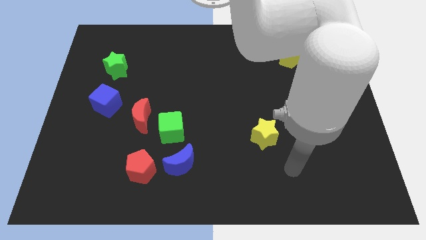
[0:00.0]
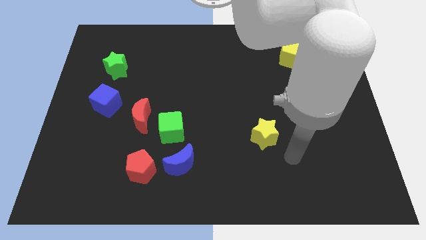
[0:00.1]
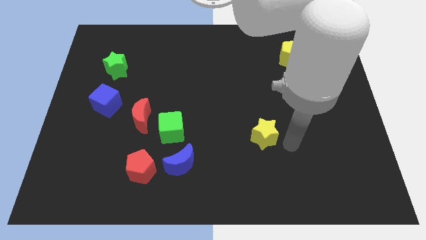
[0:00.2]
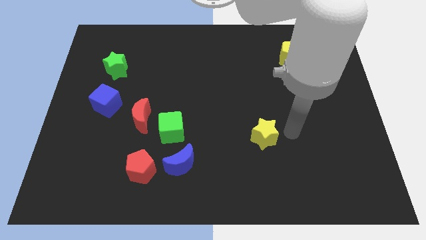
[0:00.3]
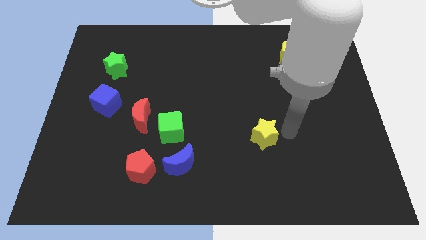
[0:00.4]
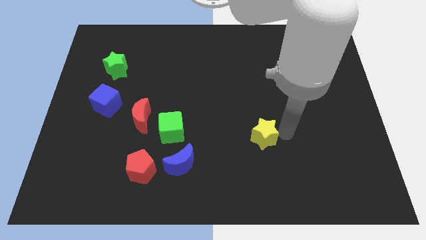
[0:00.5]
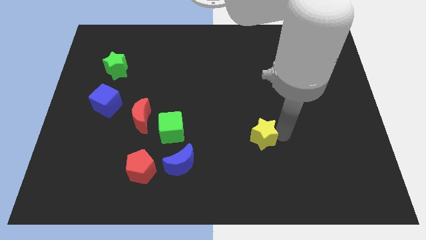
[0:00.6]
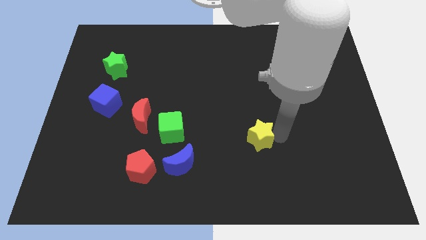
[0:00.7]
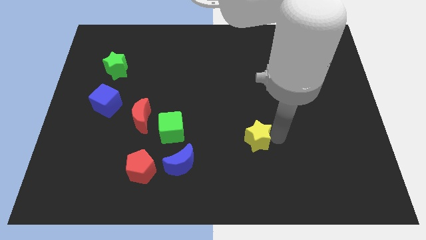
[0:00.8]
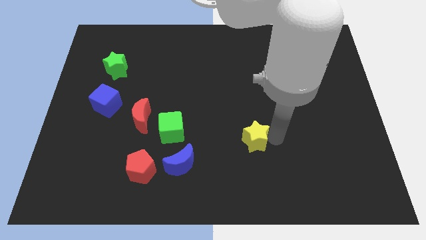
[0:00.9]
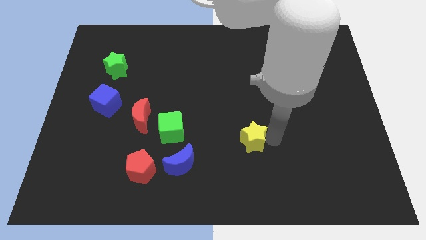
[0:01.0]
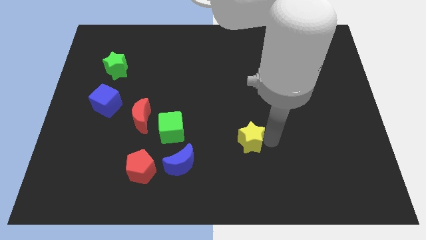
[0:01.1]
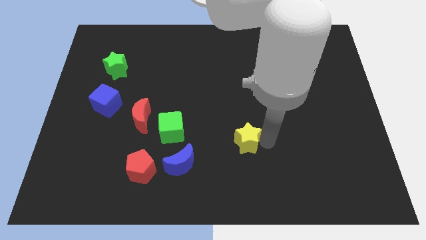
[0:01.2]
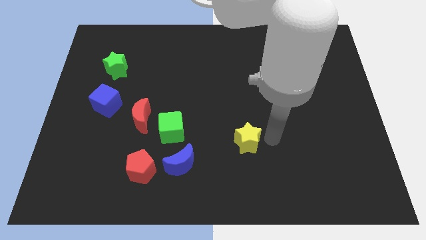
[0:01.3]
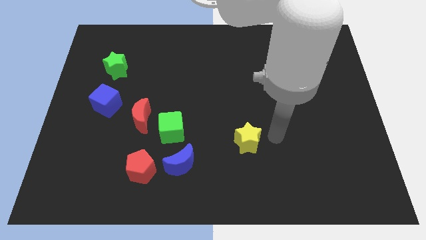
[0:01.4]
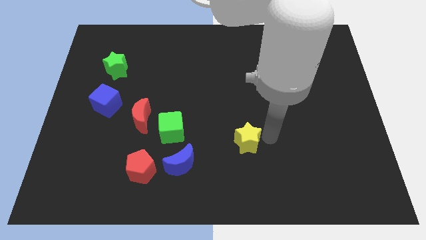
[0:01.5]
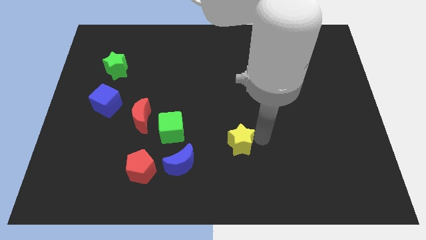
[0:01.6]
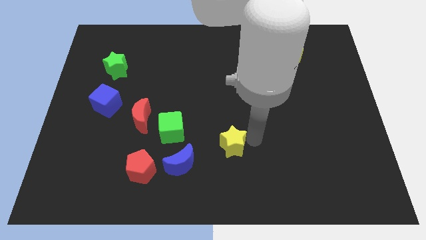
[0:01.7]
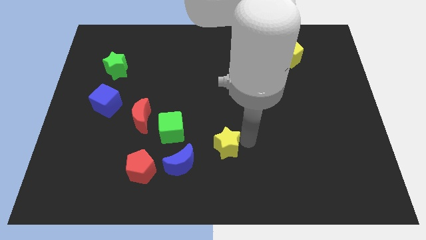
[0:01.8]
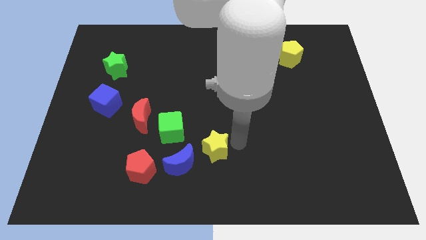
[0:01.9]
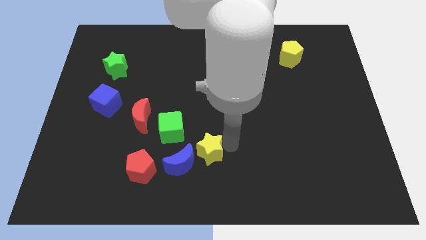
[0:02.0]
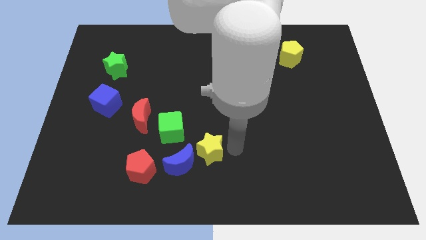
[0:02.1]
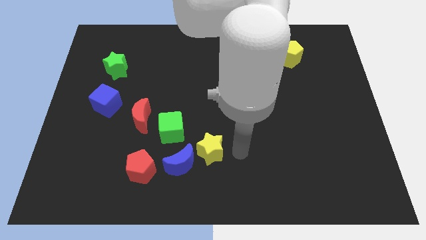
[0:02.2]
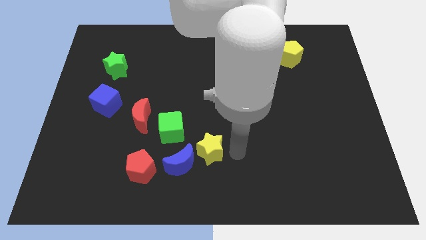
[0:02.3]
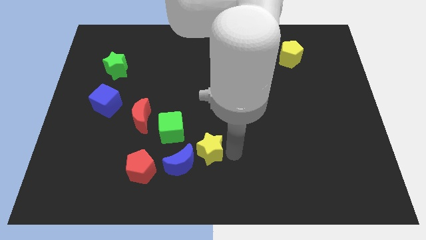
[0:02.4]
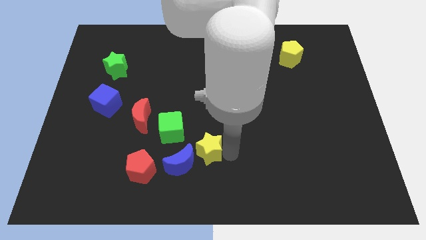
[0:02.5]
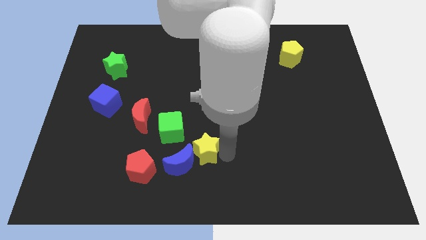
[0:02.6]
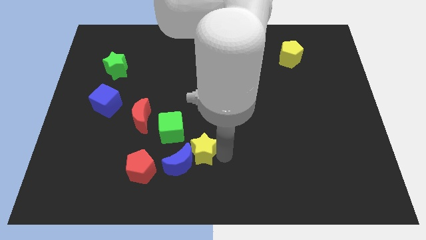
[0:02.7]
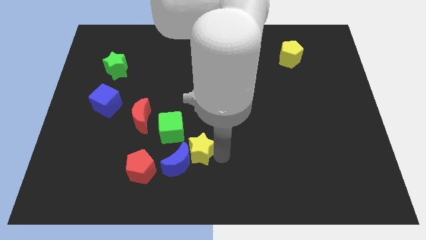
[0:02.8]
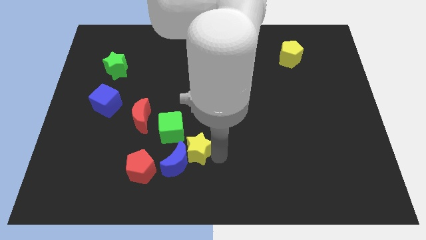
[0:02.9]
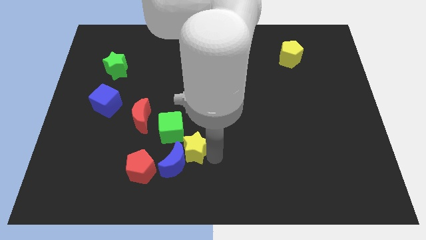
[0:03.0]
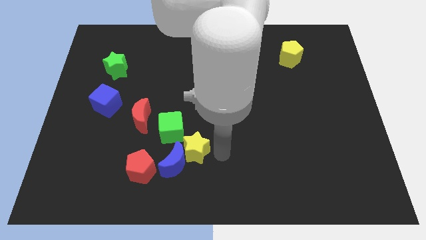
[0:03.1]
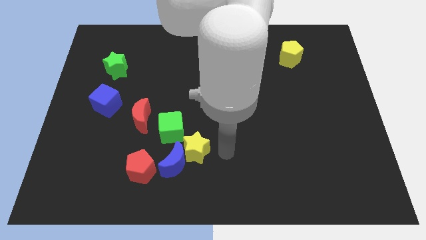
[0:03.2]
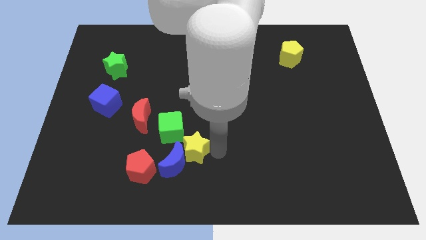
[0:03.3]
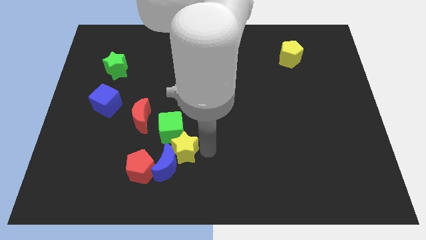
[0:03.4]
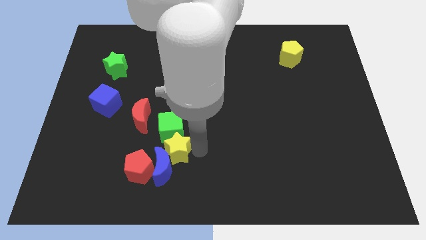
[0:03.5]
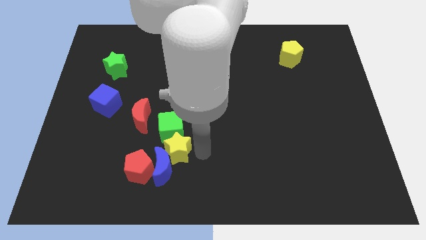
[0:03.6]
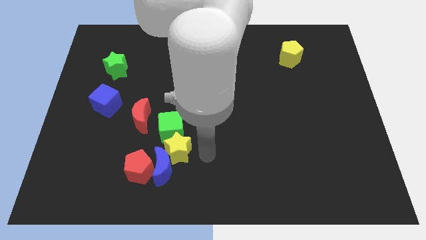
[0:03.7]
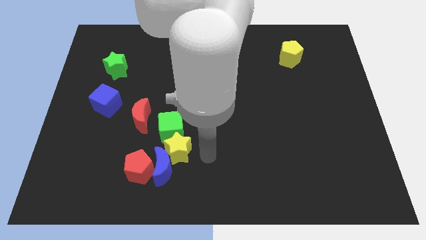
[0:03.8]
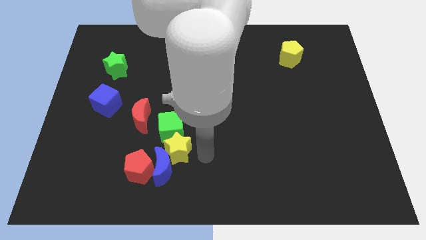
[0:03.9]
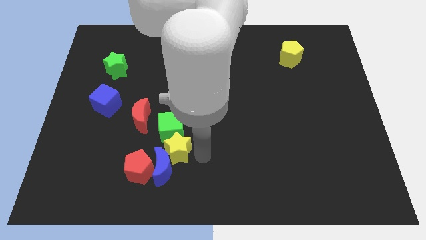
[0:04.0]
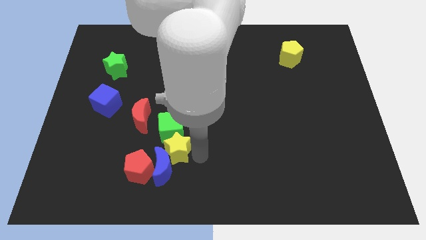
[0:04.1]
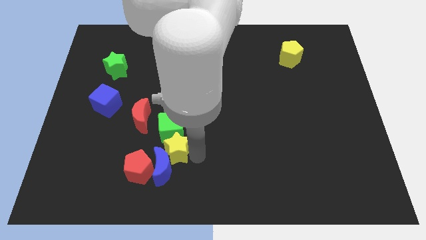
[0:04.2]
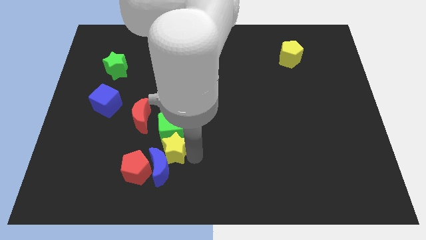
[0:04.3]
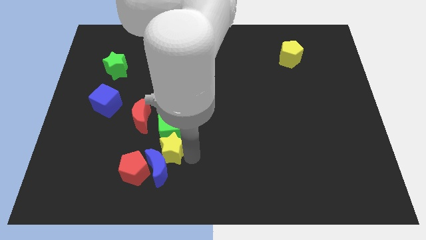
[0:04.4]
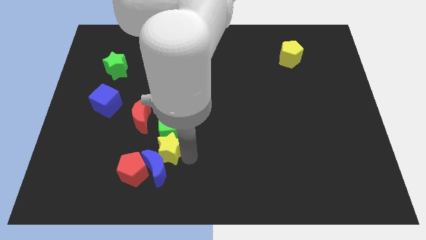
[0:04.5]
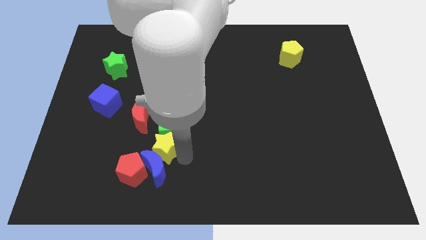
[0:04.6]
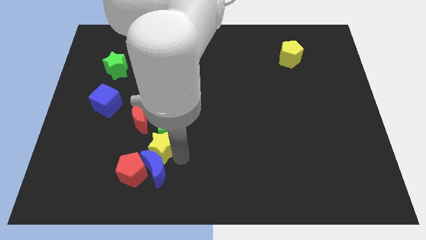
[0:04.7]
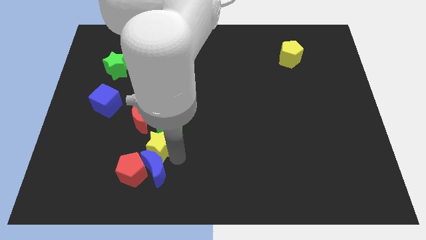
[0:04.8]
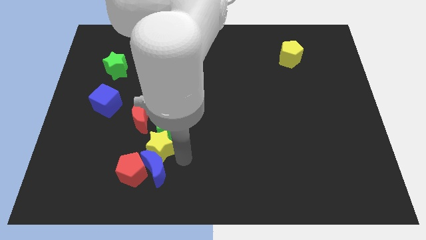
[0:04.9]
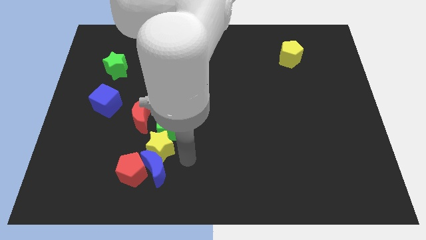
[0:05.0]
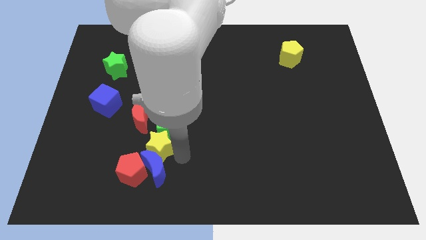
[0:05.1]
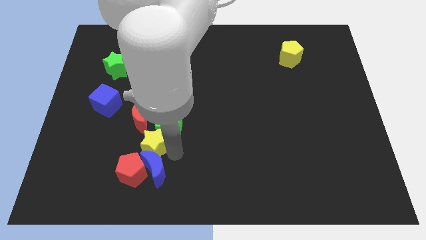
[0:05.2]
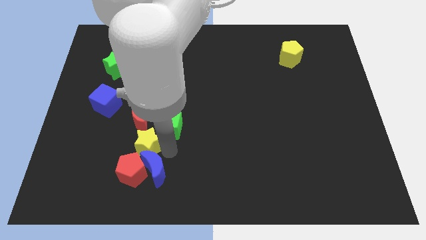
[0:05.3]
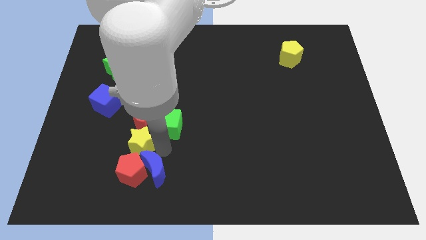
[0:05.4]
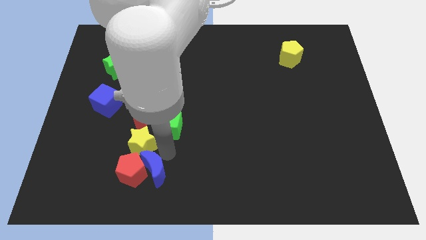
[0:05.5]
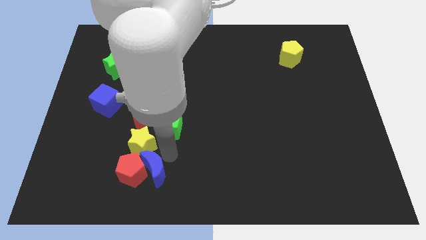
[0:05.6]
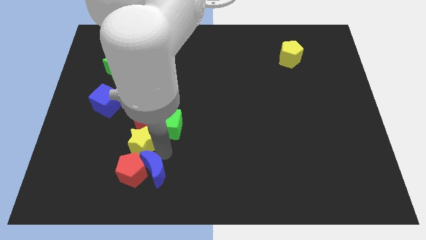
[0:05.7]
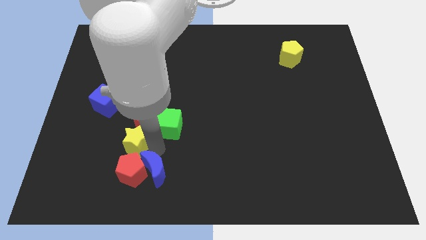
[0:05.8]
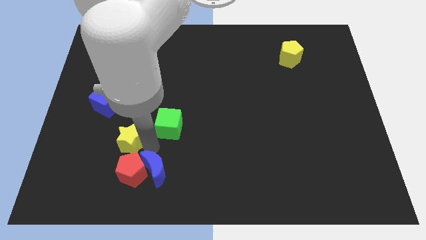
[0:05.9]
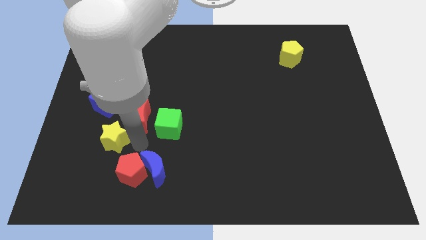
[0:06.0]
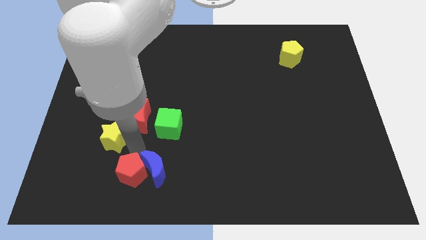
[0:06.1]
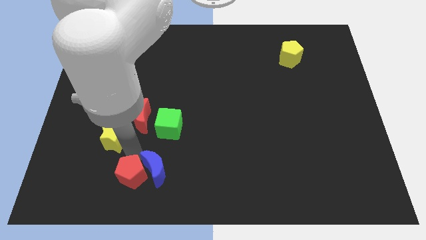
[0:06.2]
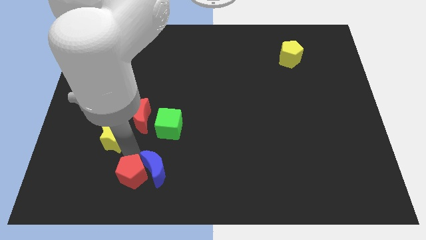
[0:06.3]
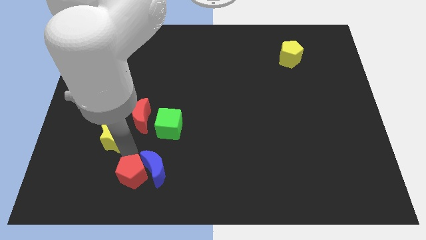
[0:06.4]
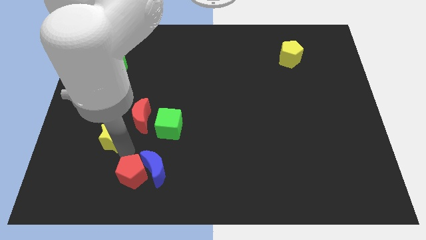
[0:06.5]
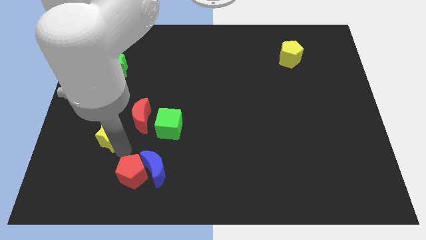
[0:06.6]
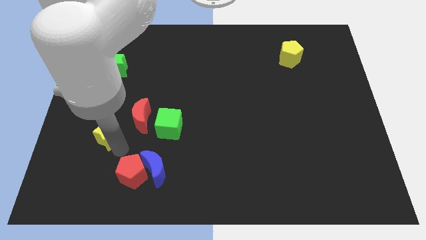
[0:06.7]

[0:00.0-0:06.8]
push the yellow star just left of the red moon

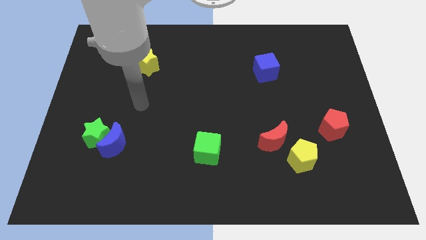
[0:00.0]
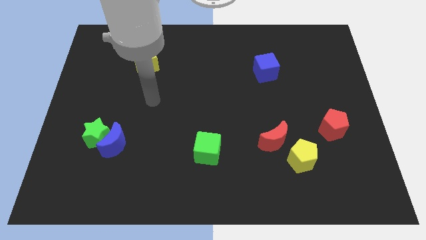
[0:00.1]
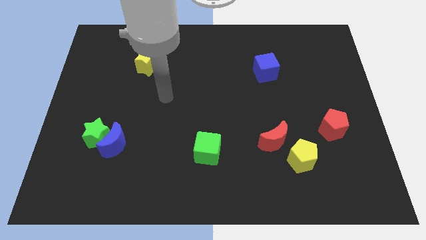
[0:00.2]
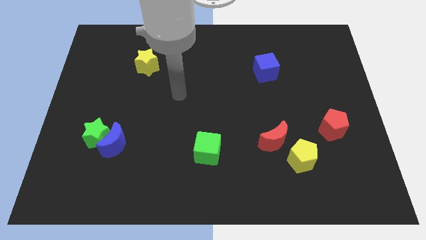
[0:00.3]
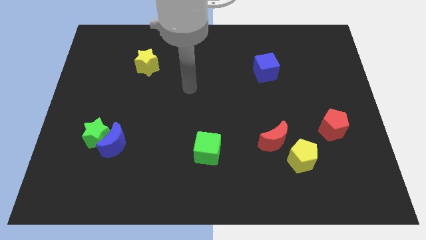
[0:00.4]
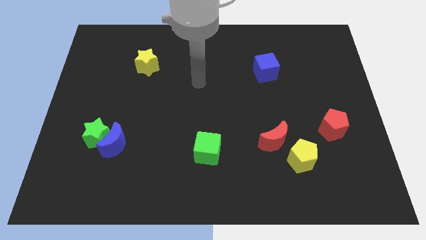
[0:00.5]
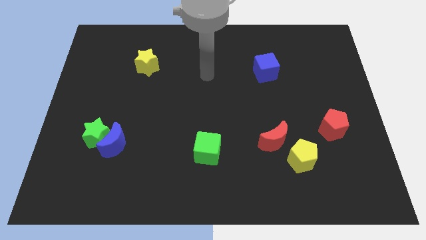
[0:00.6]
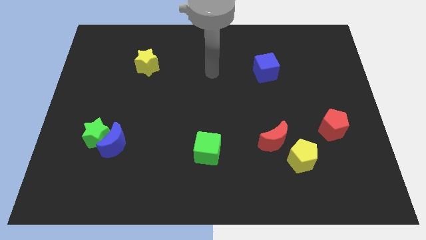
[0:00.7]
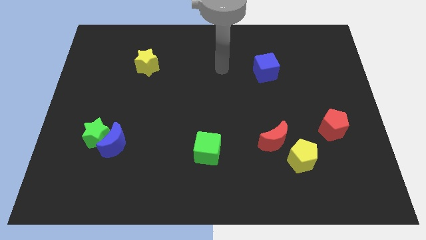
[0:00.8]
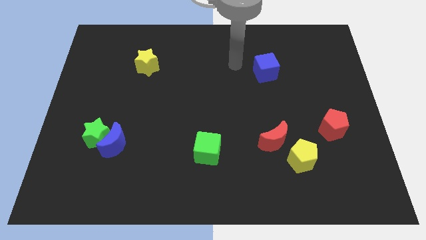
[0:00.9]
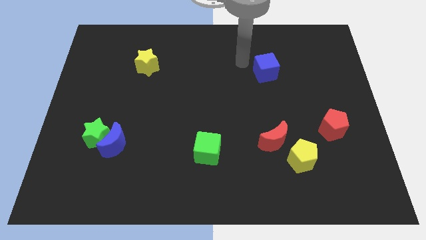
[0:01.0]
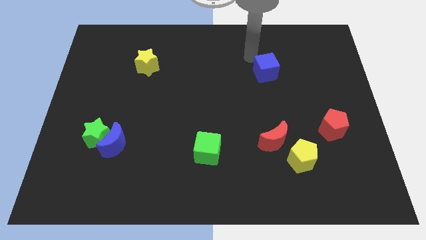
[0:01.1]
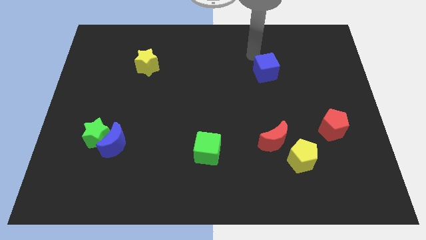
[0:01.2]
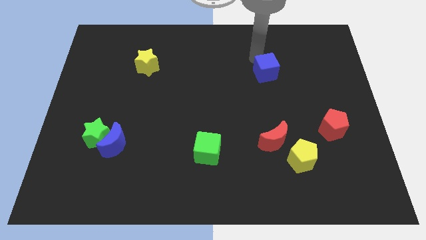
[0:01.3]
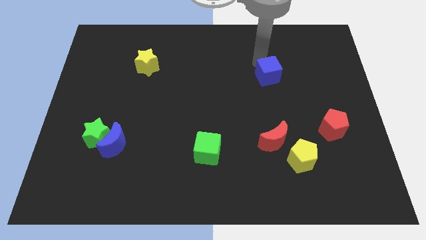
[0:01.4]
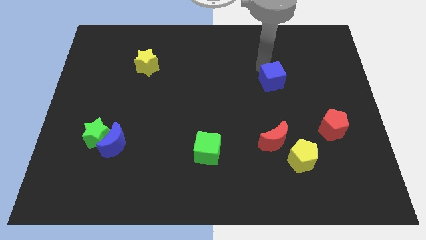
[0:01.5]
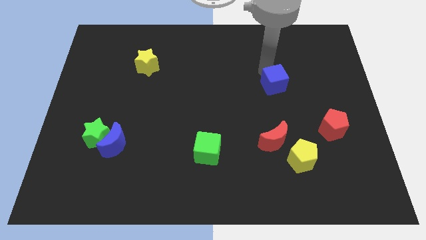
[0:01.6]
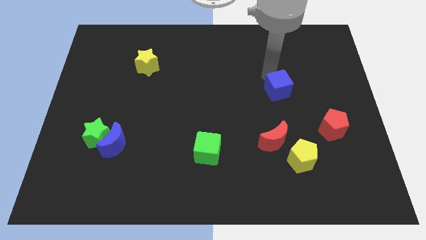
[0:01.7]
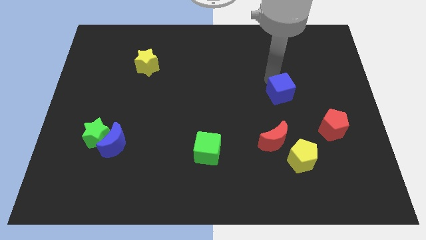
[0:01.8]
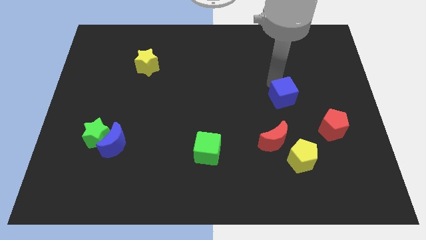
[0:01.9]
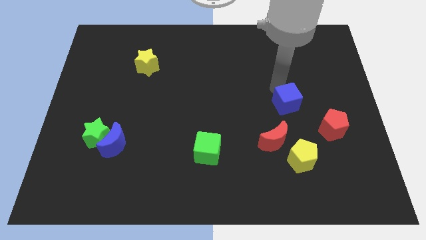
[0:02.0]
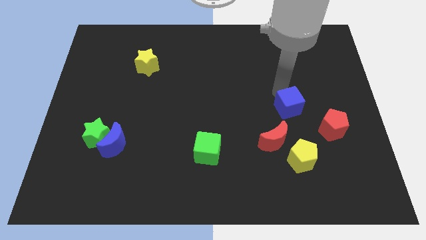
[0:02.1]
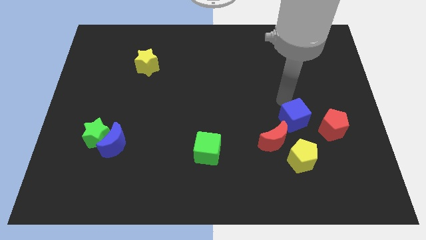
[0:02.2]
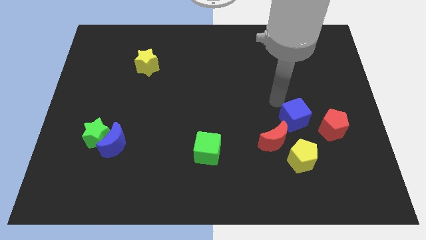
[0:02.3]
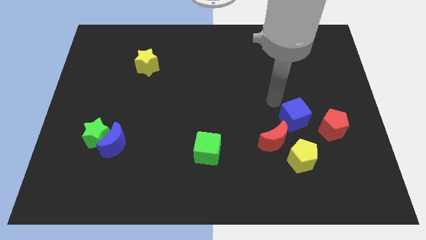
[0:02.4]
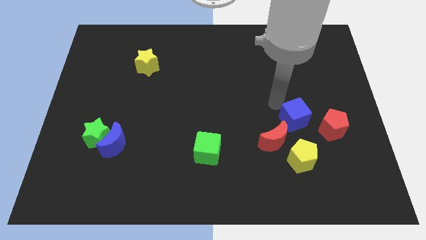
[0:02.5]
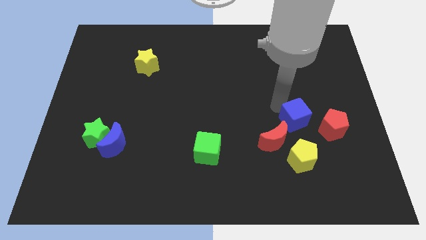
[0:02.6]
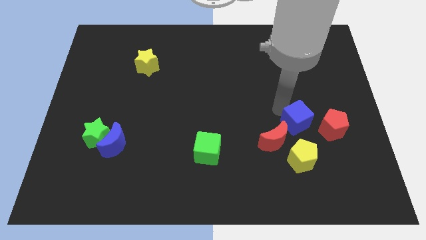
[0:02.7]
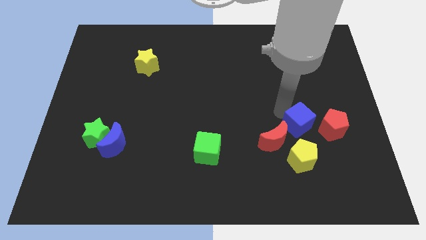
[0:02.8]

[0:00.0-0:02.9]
move the blue cube to the right side of the red moon
